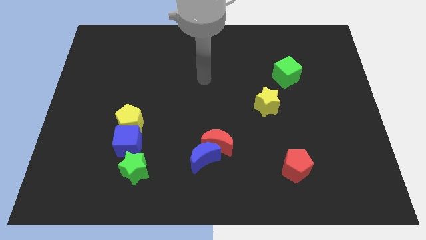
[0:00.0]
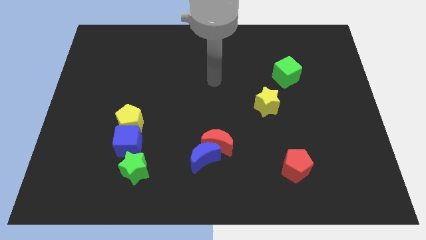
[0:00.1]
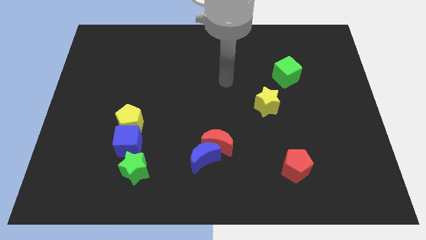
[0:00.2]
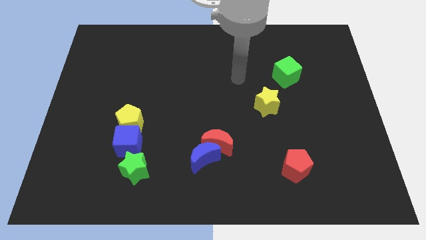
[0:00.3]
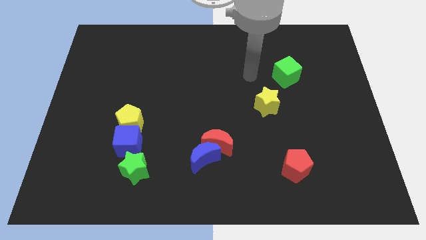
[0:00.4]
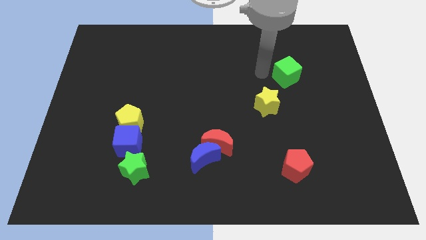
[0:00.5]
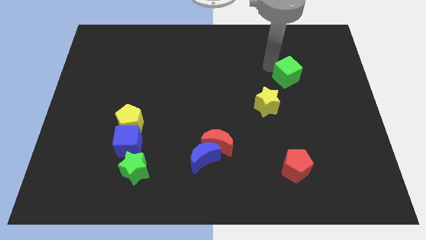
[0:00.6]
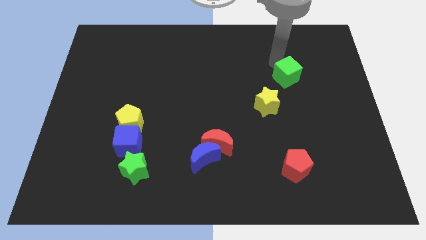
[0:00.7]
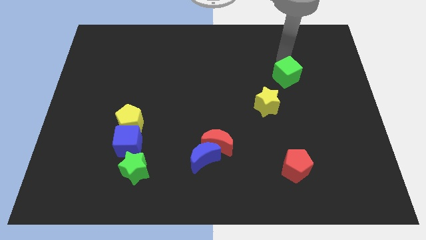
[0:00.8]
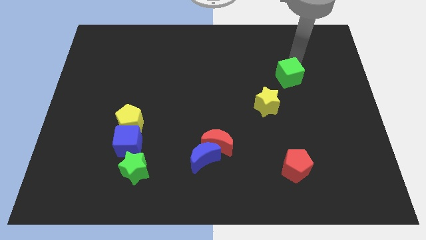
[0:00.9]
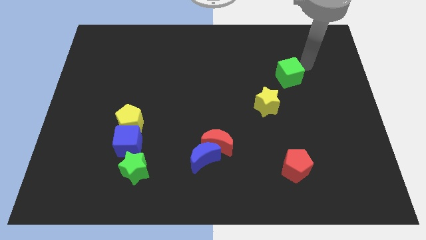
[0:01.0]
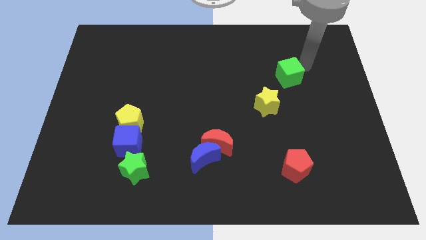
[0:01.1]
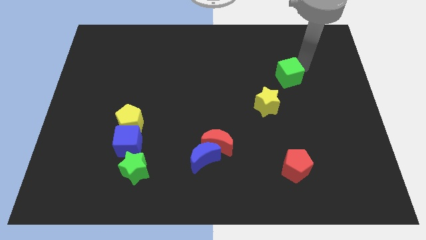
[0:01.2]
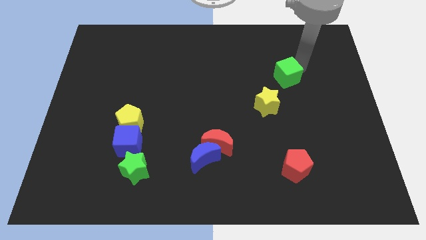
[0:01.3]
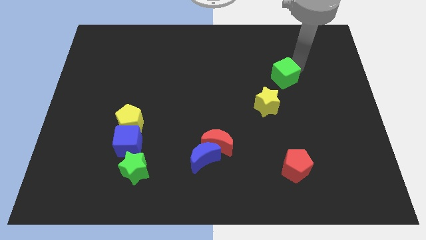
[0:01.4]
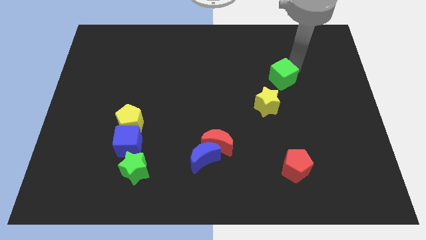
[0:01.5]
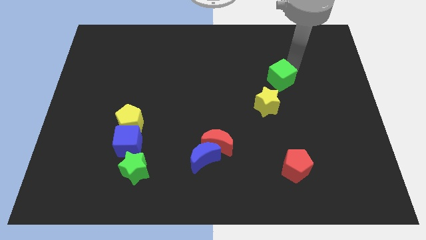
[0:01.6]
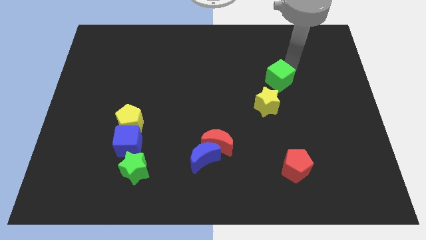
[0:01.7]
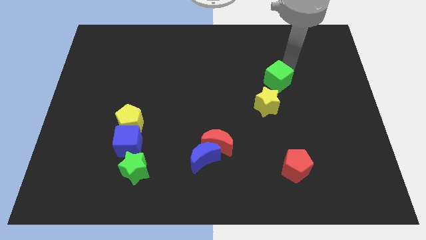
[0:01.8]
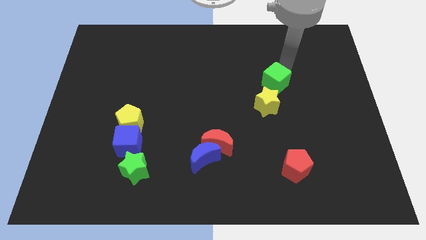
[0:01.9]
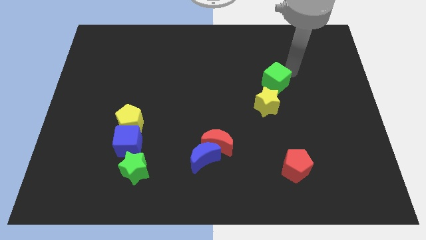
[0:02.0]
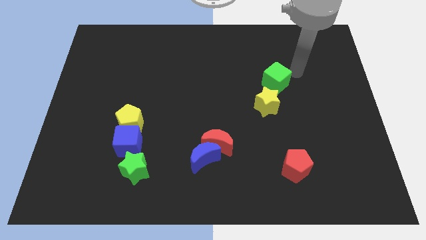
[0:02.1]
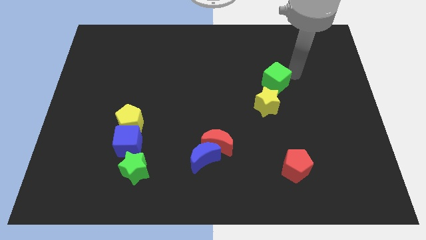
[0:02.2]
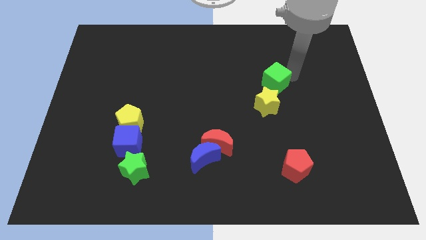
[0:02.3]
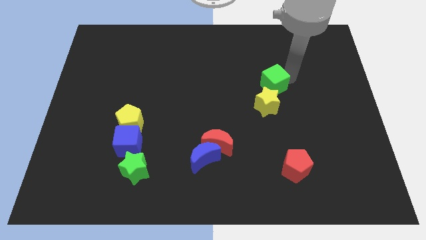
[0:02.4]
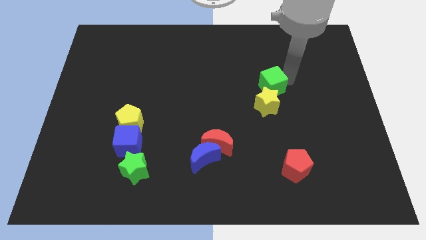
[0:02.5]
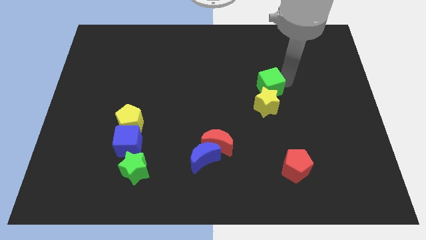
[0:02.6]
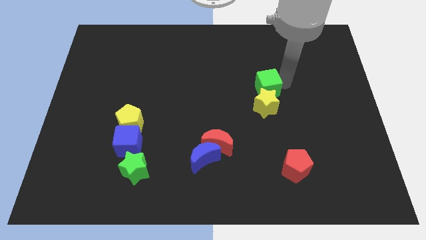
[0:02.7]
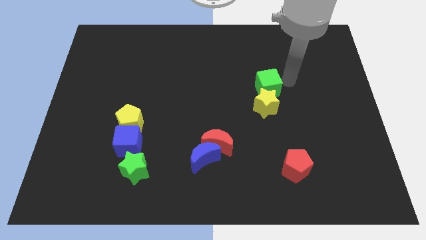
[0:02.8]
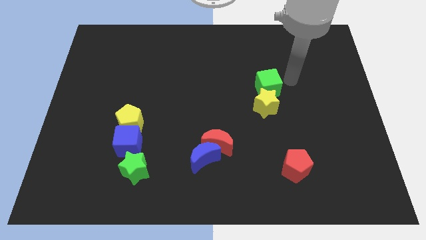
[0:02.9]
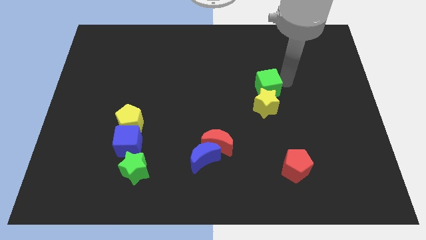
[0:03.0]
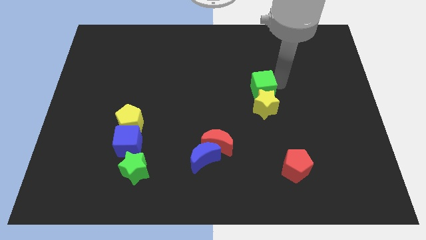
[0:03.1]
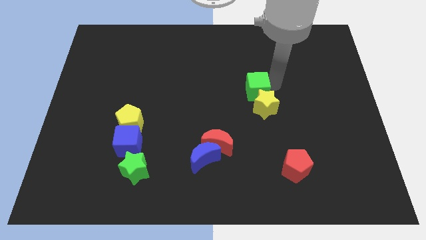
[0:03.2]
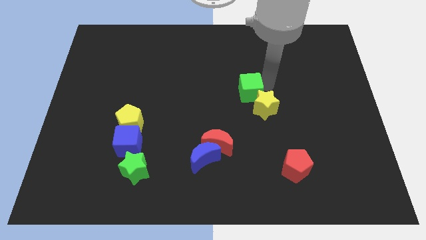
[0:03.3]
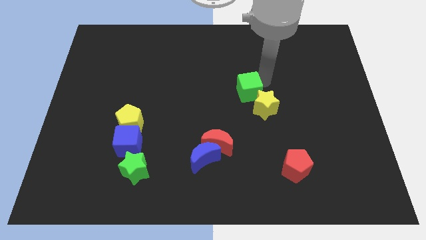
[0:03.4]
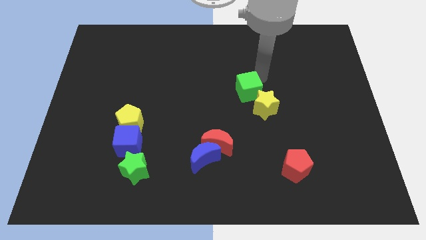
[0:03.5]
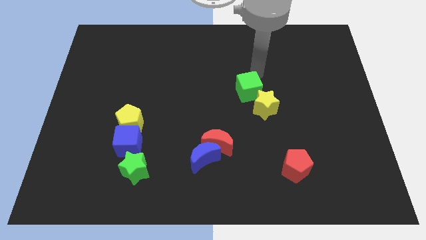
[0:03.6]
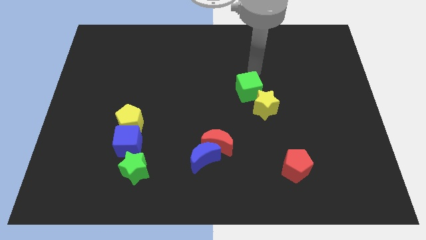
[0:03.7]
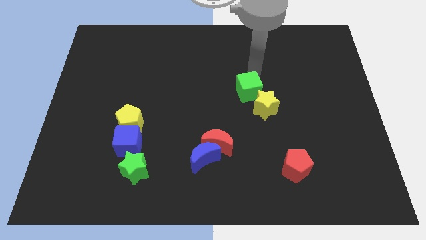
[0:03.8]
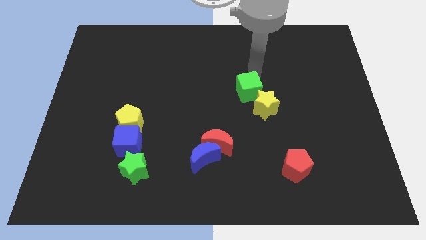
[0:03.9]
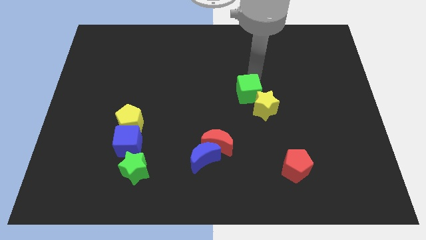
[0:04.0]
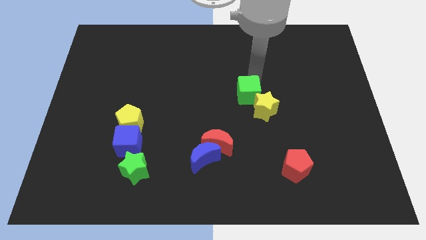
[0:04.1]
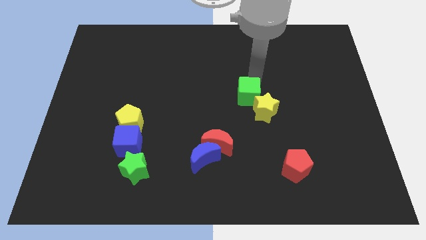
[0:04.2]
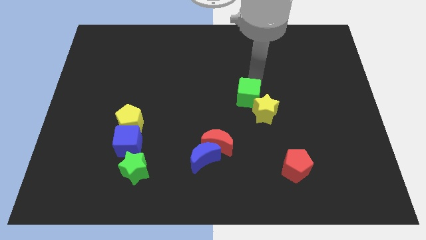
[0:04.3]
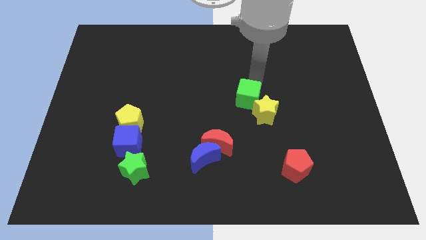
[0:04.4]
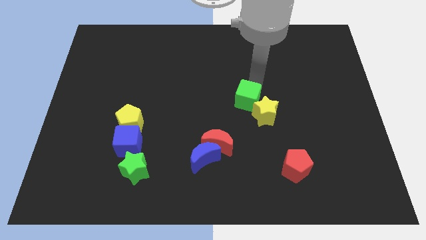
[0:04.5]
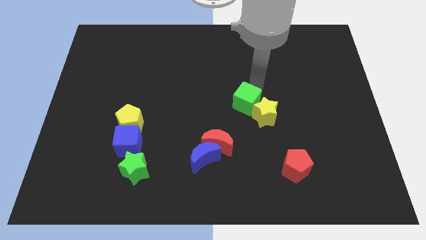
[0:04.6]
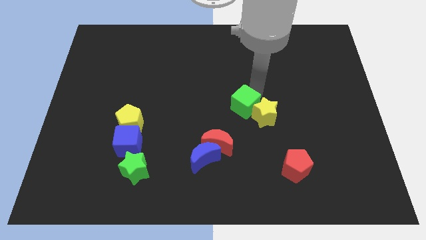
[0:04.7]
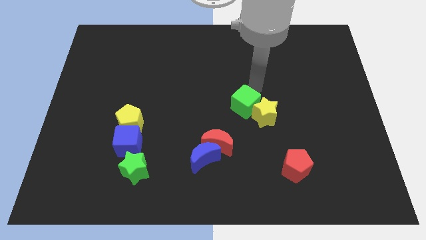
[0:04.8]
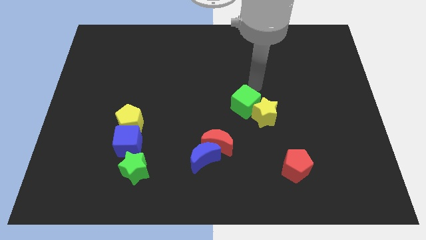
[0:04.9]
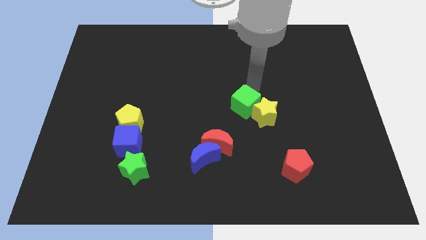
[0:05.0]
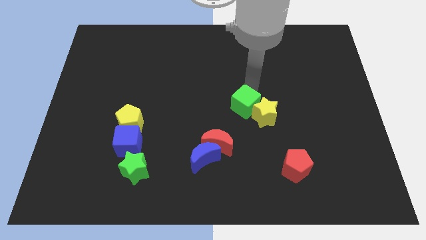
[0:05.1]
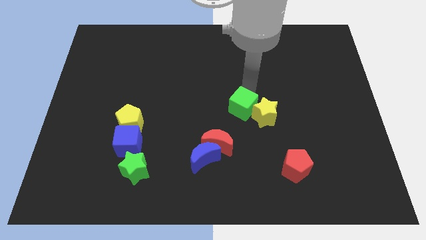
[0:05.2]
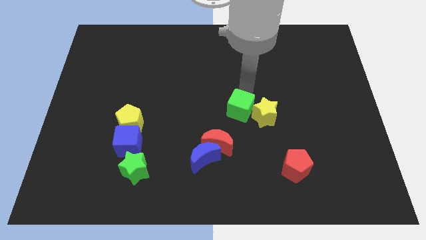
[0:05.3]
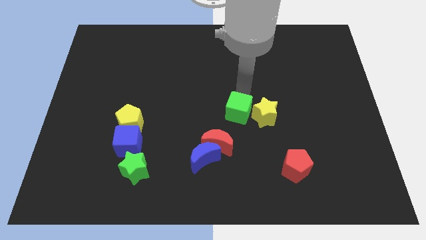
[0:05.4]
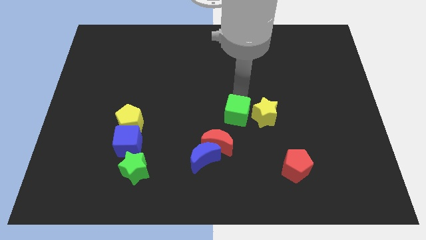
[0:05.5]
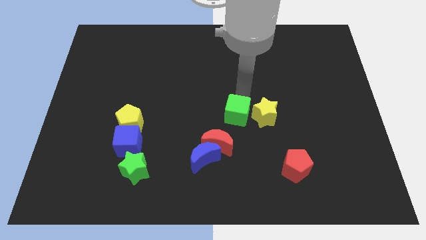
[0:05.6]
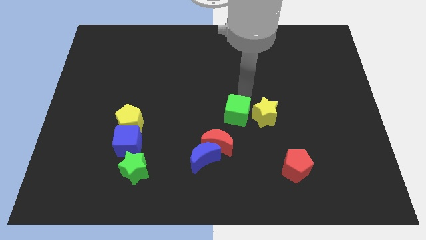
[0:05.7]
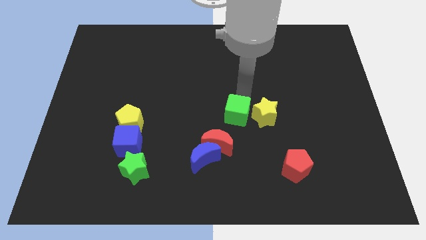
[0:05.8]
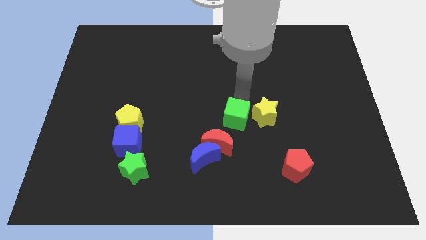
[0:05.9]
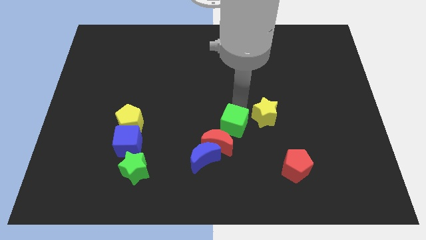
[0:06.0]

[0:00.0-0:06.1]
push the green cube to the top right side of the blue moon

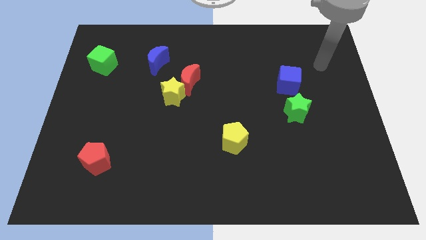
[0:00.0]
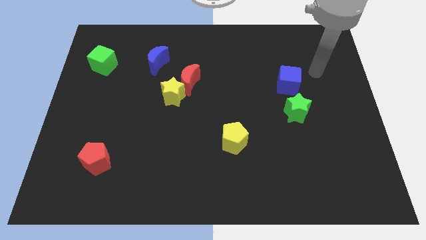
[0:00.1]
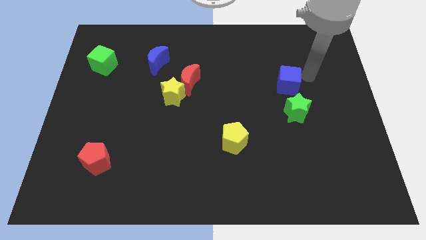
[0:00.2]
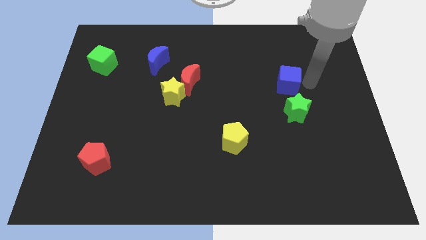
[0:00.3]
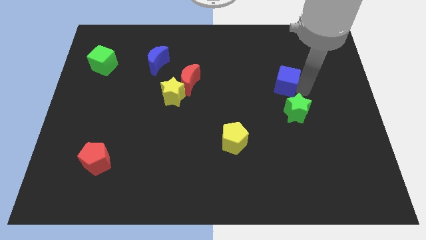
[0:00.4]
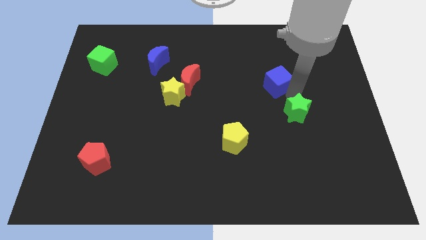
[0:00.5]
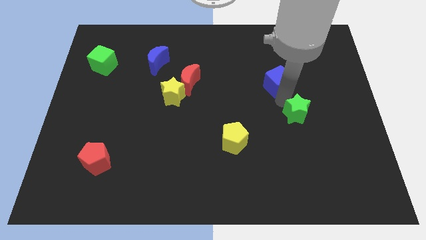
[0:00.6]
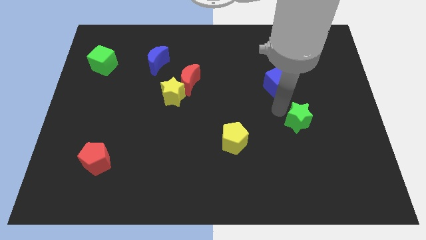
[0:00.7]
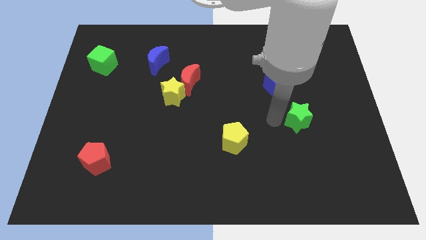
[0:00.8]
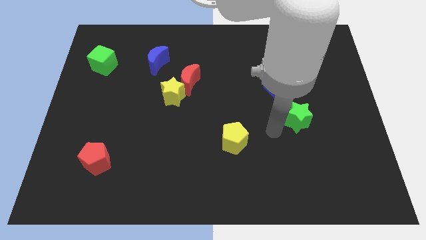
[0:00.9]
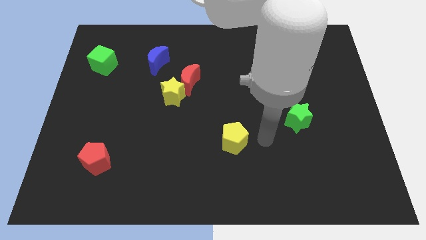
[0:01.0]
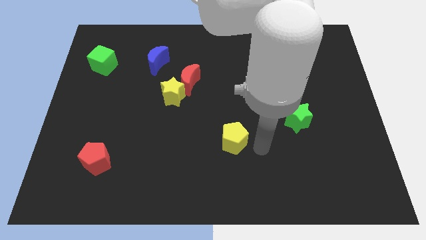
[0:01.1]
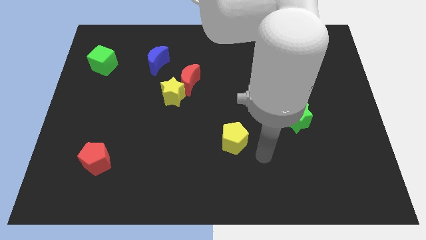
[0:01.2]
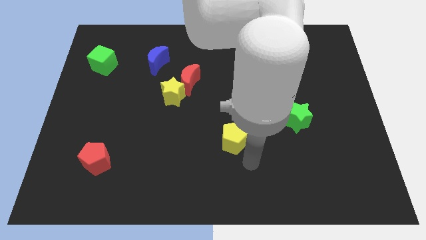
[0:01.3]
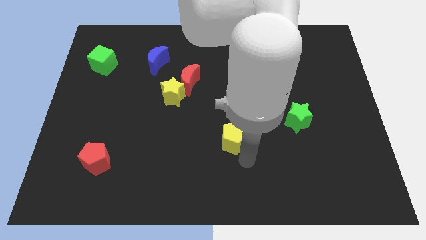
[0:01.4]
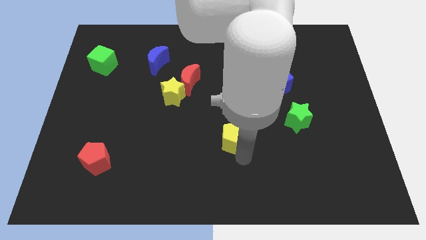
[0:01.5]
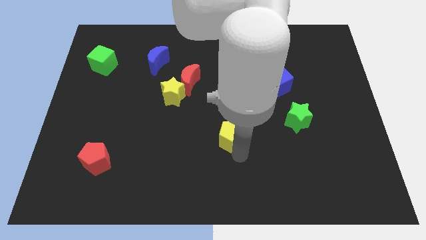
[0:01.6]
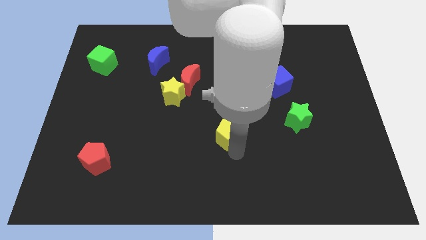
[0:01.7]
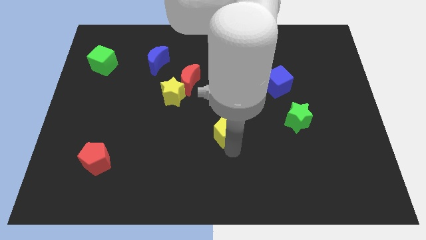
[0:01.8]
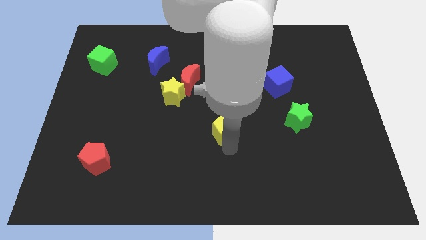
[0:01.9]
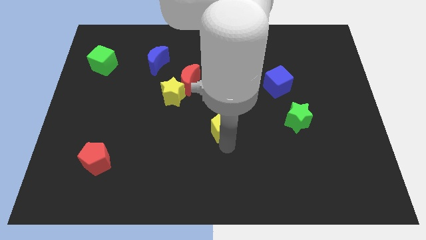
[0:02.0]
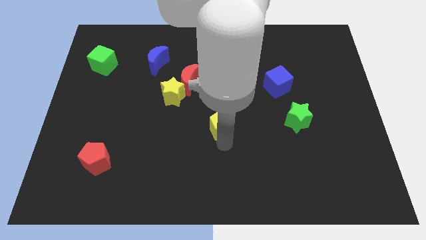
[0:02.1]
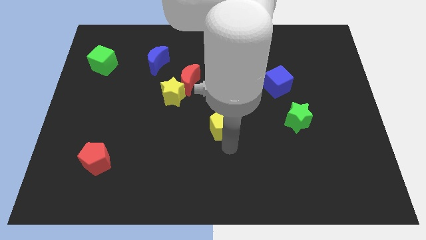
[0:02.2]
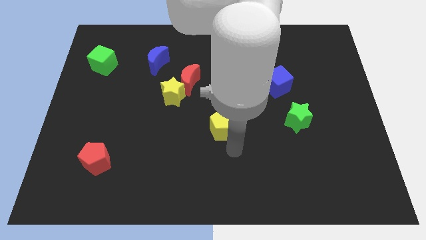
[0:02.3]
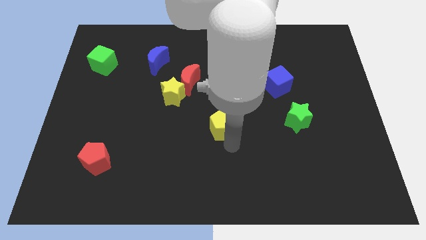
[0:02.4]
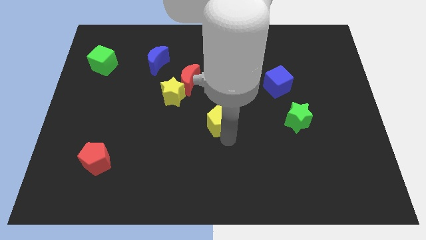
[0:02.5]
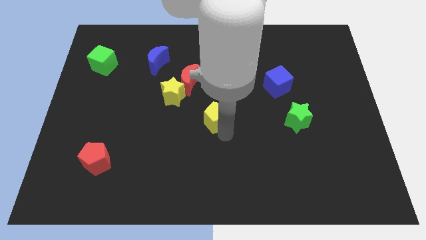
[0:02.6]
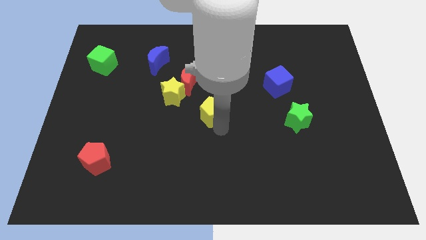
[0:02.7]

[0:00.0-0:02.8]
push the yellow pentagon to the bottom right of the red moon
